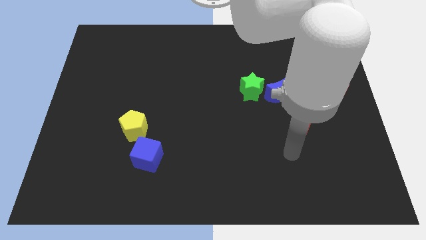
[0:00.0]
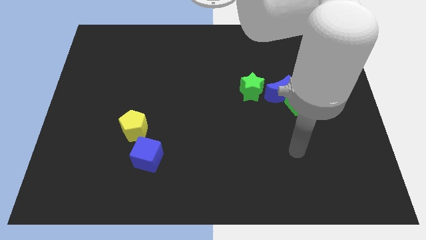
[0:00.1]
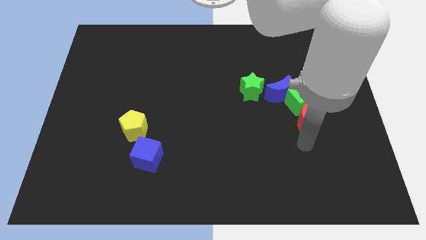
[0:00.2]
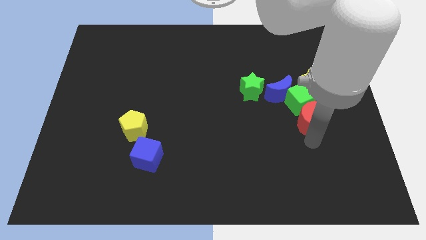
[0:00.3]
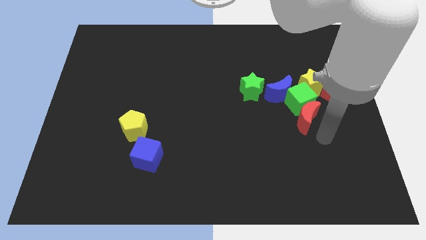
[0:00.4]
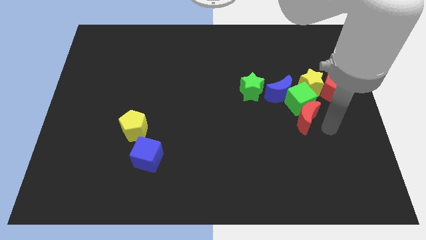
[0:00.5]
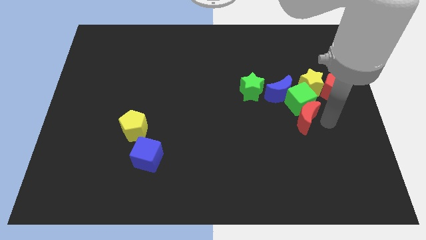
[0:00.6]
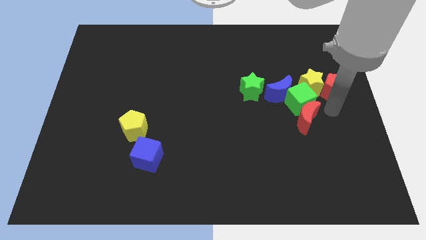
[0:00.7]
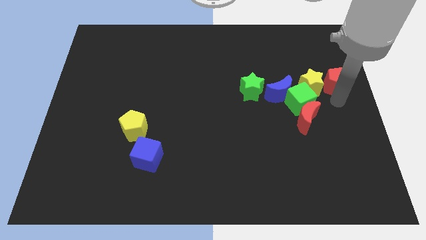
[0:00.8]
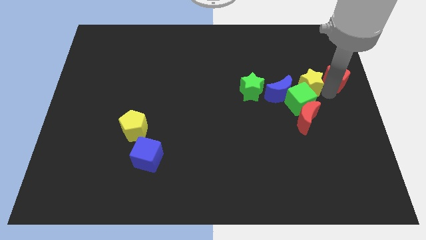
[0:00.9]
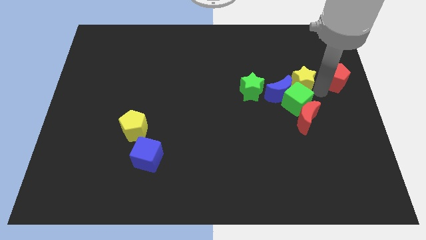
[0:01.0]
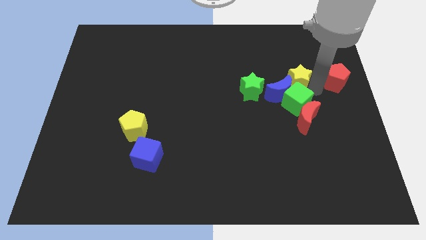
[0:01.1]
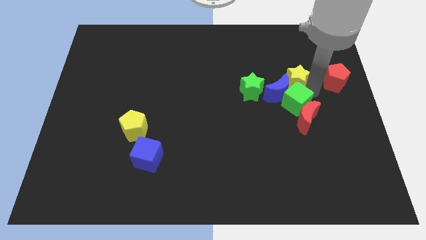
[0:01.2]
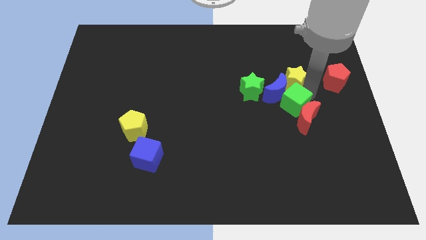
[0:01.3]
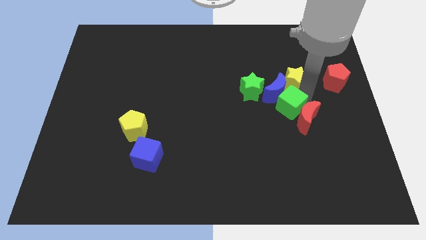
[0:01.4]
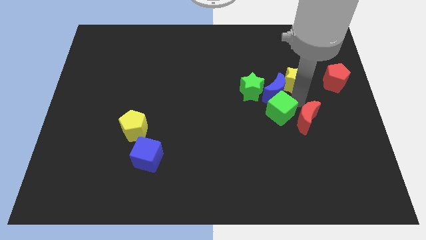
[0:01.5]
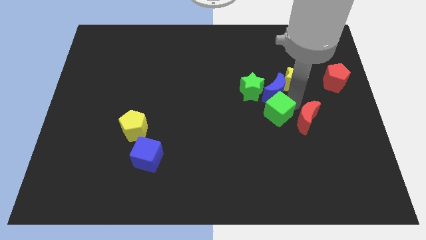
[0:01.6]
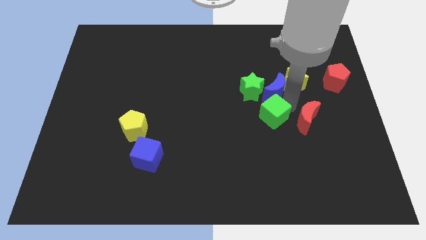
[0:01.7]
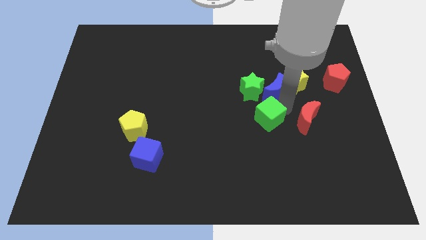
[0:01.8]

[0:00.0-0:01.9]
pull the green cube apart from the group

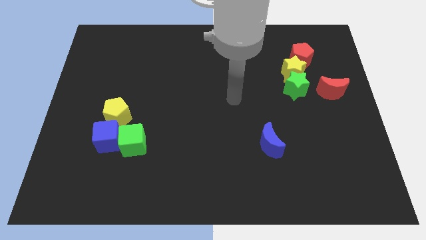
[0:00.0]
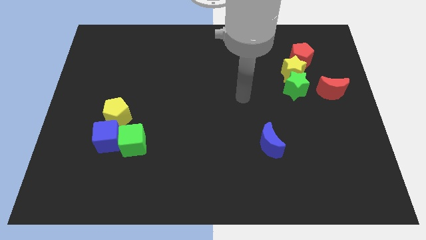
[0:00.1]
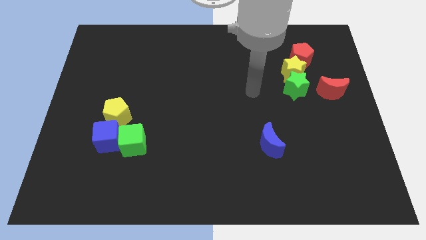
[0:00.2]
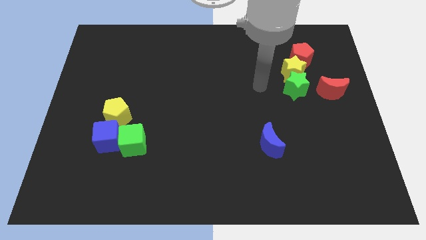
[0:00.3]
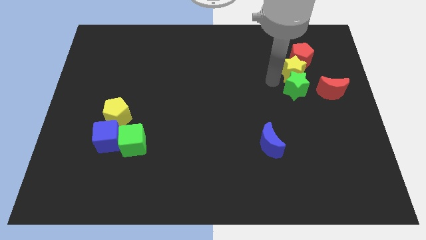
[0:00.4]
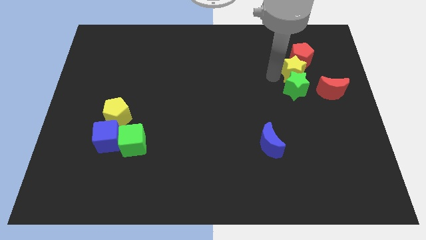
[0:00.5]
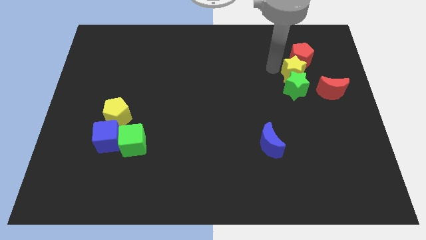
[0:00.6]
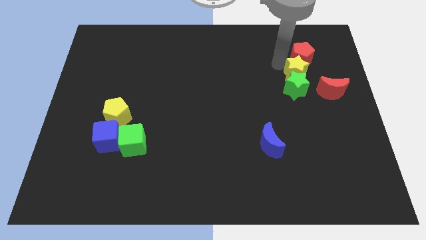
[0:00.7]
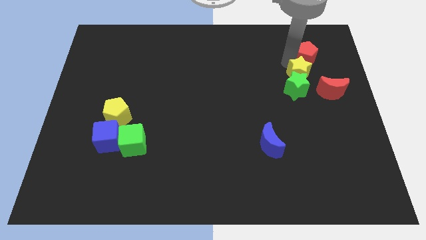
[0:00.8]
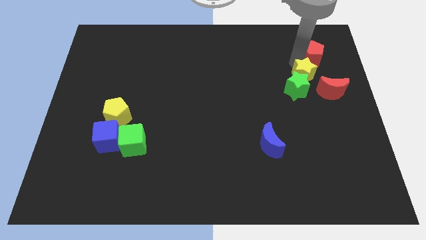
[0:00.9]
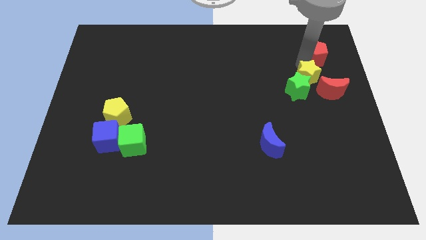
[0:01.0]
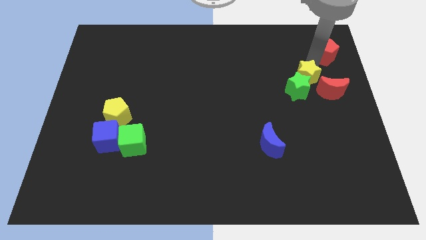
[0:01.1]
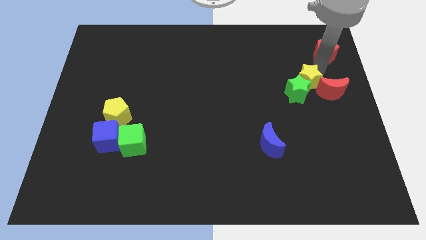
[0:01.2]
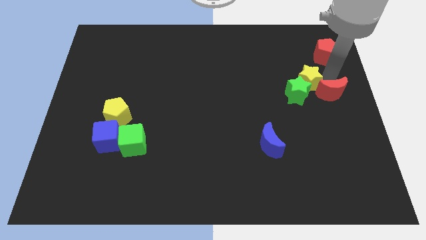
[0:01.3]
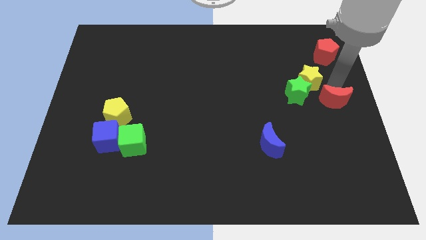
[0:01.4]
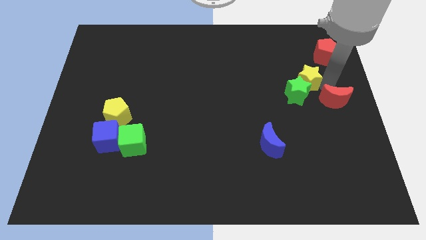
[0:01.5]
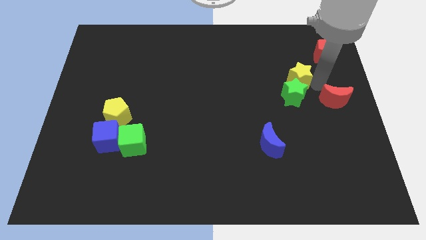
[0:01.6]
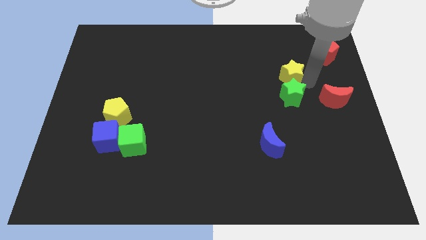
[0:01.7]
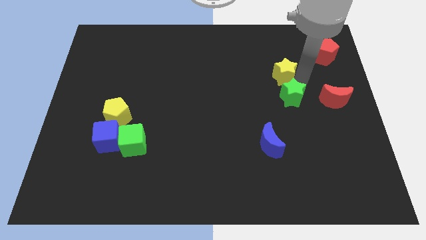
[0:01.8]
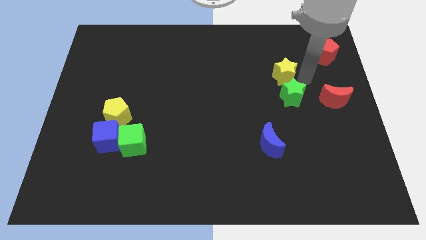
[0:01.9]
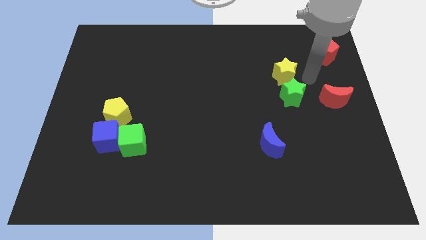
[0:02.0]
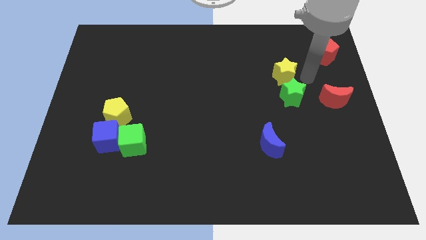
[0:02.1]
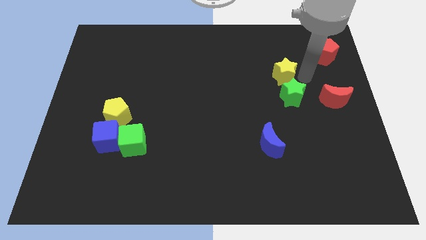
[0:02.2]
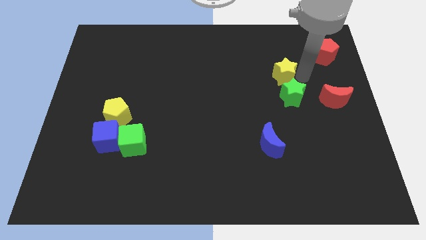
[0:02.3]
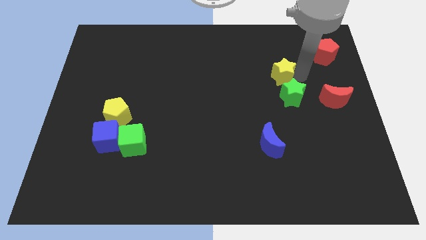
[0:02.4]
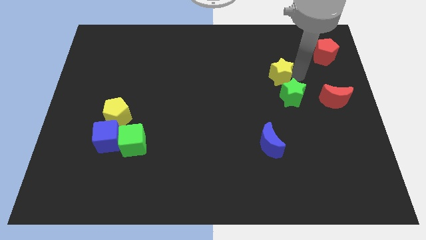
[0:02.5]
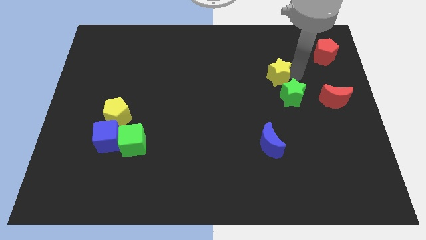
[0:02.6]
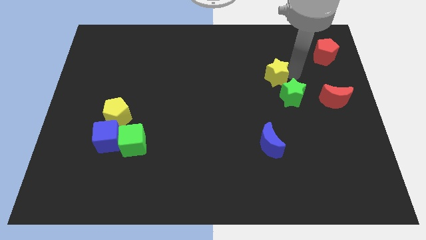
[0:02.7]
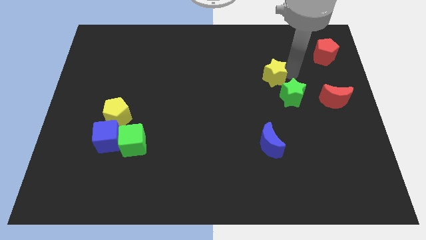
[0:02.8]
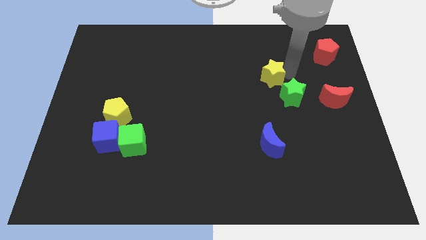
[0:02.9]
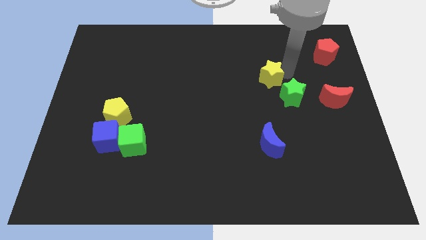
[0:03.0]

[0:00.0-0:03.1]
move the yellow star away from the green star and red pentagon

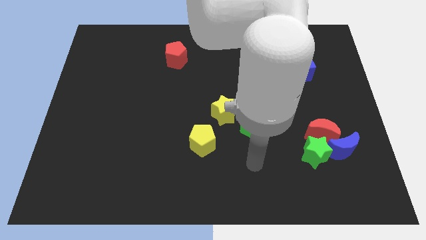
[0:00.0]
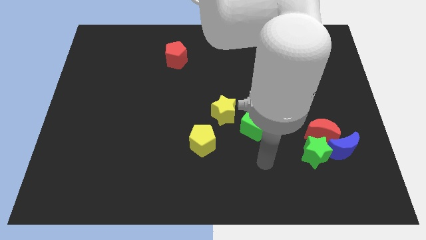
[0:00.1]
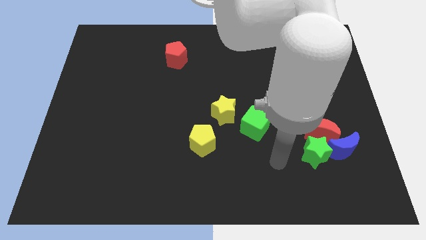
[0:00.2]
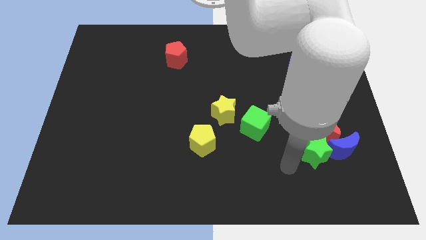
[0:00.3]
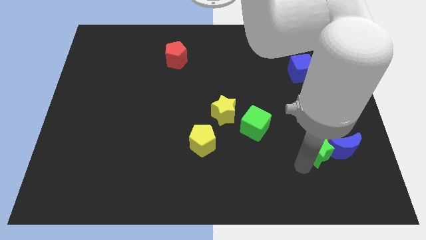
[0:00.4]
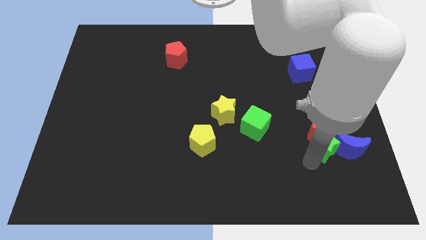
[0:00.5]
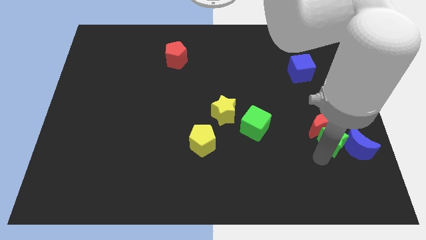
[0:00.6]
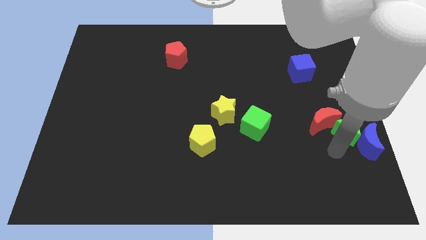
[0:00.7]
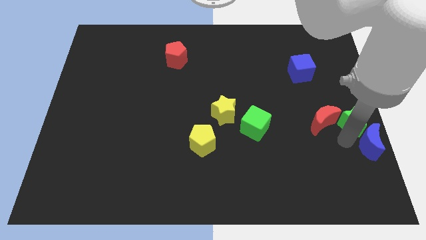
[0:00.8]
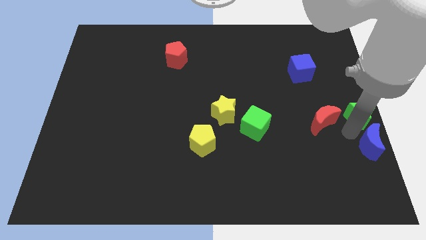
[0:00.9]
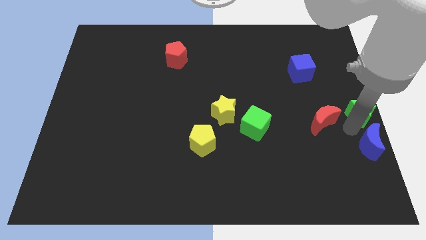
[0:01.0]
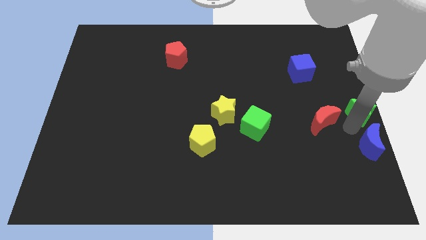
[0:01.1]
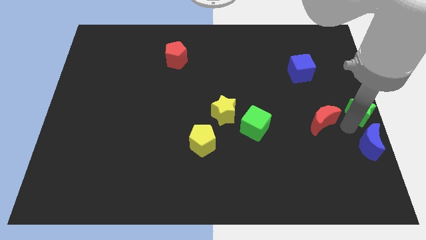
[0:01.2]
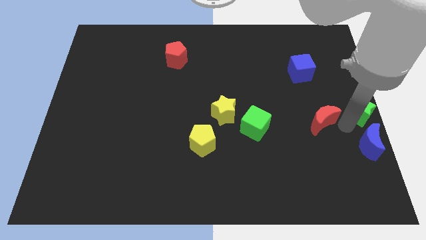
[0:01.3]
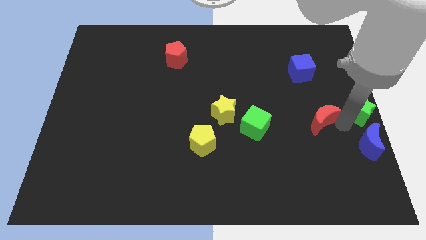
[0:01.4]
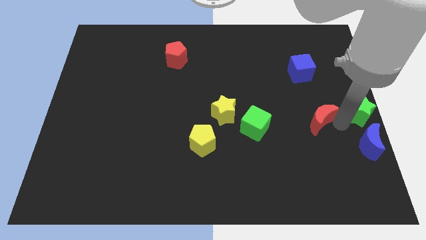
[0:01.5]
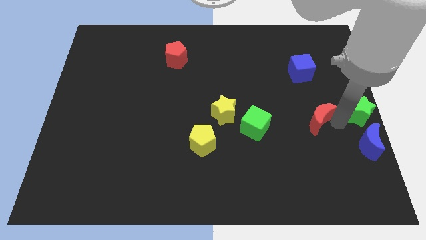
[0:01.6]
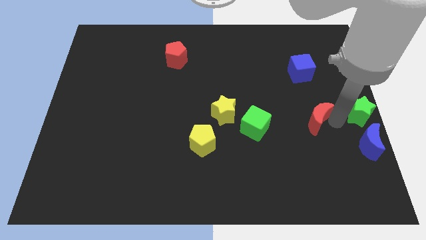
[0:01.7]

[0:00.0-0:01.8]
pull the red moon apart from the blue moon and green star

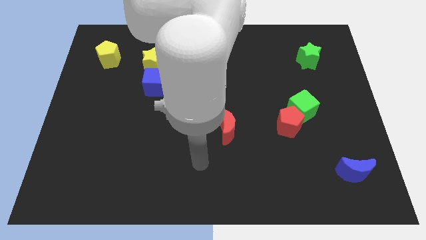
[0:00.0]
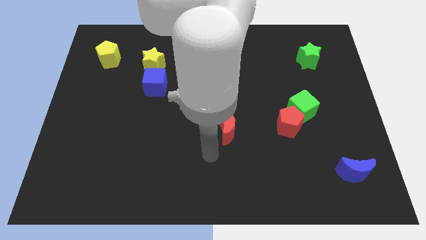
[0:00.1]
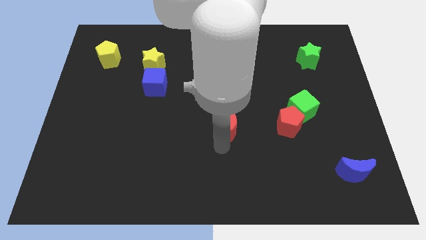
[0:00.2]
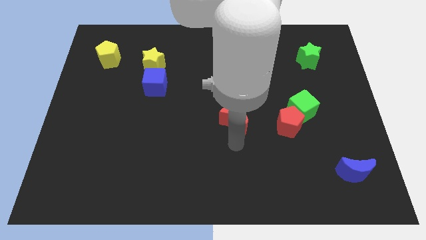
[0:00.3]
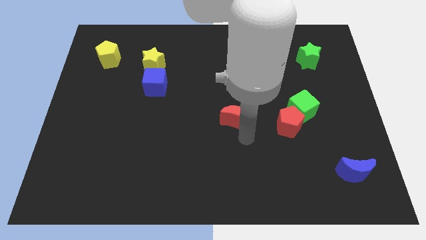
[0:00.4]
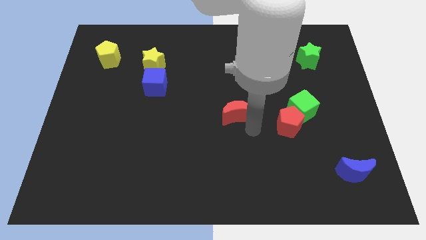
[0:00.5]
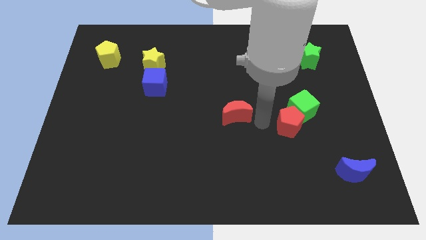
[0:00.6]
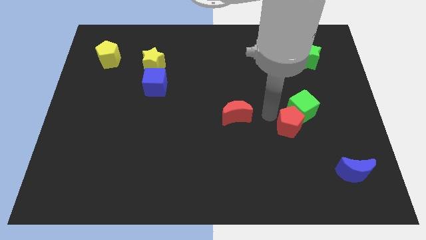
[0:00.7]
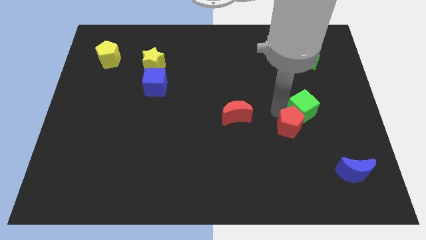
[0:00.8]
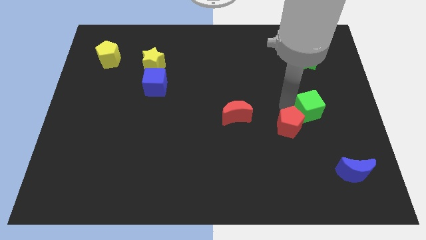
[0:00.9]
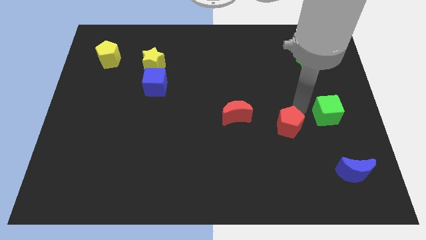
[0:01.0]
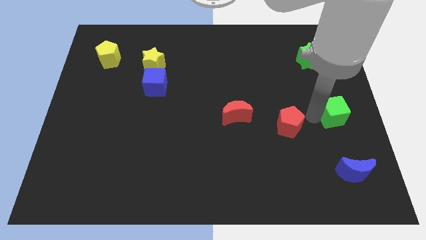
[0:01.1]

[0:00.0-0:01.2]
move the red pentagon away from the green cube

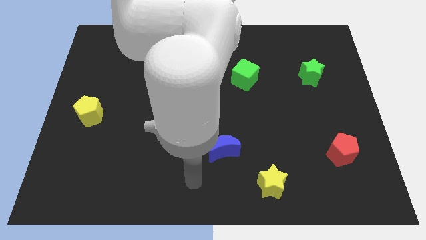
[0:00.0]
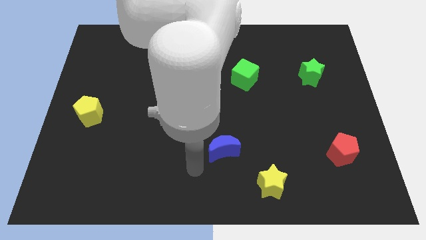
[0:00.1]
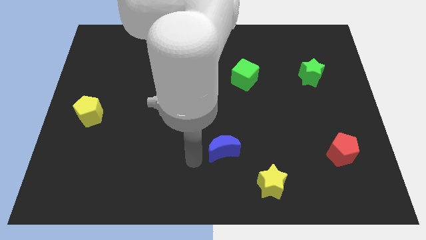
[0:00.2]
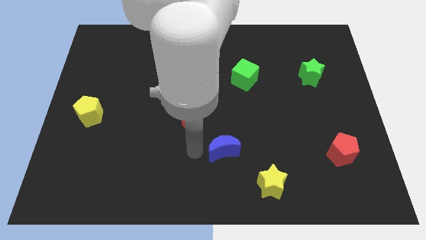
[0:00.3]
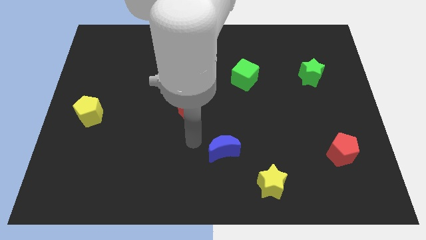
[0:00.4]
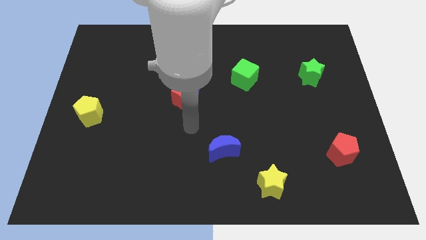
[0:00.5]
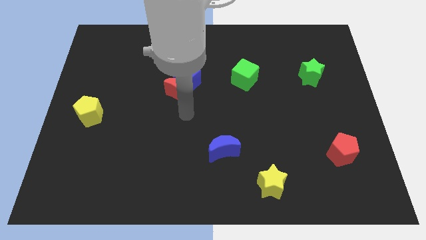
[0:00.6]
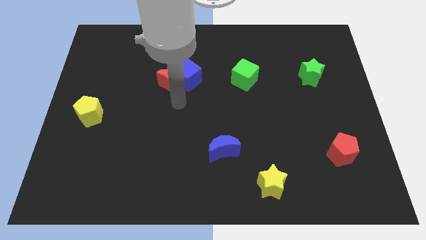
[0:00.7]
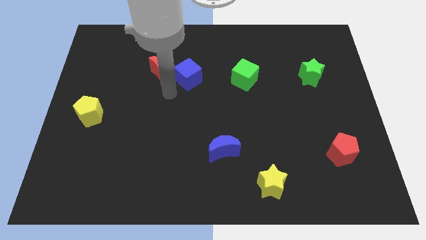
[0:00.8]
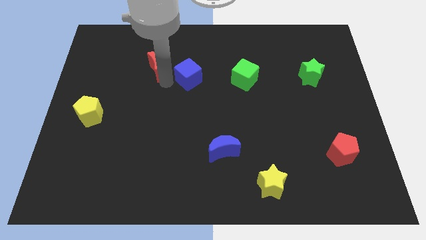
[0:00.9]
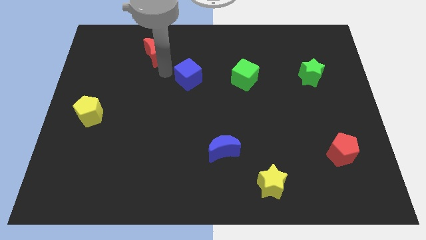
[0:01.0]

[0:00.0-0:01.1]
separate the blue cube from the red moon
